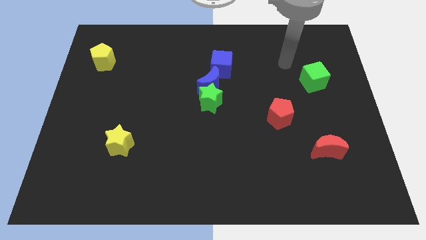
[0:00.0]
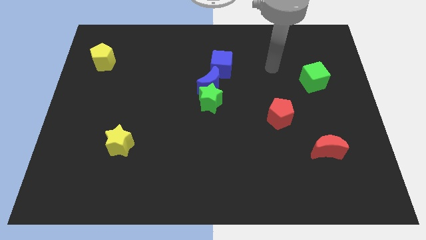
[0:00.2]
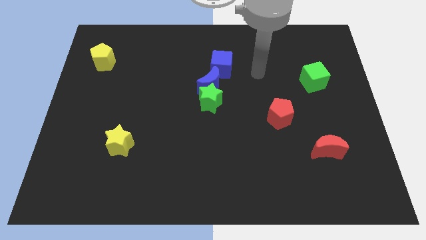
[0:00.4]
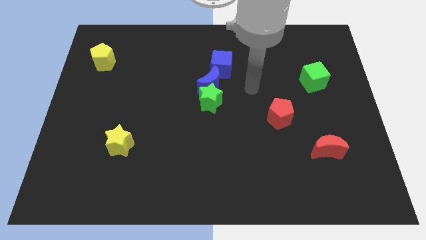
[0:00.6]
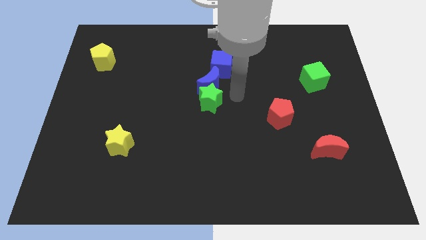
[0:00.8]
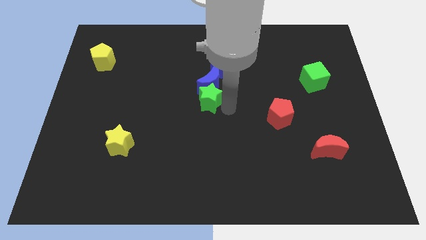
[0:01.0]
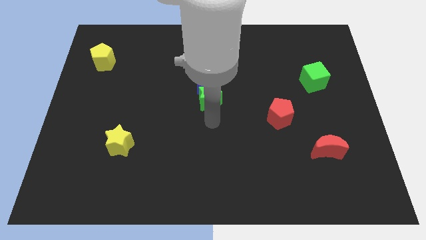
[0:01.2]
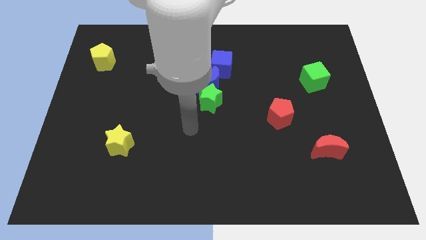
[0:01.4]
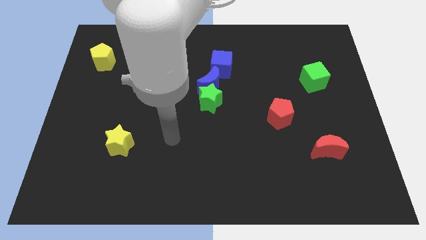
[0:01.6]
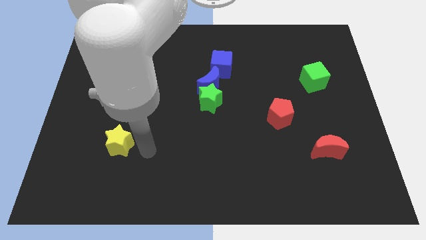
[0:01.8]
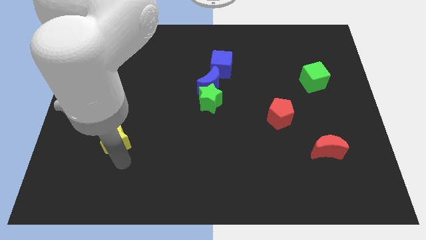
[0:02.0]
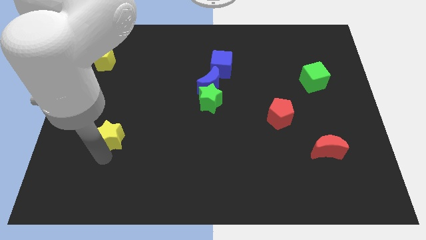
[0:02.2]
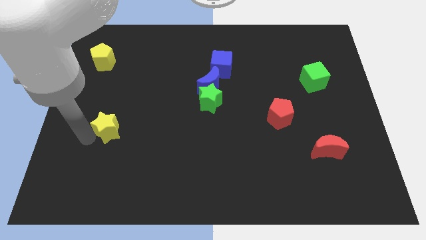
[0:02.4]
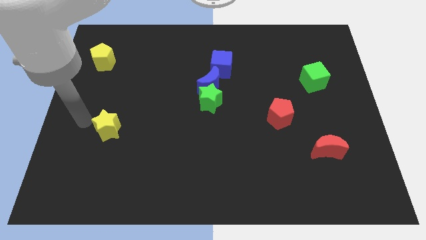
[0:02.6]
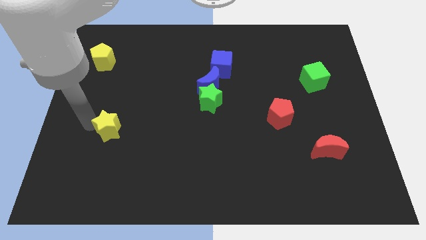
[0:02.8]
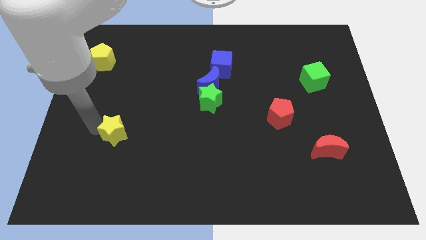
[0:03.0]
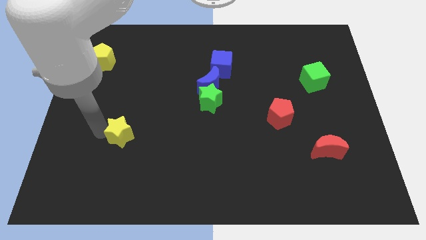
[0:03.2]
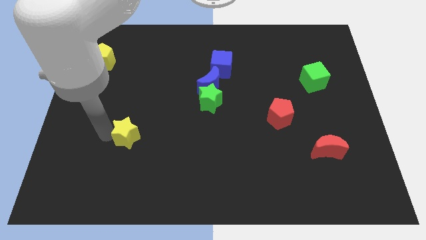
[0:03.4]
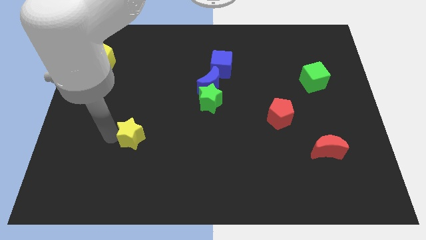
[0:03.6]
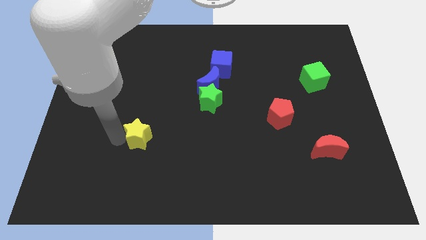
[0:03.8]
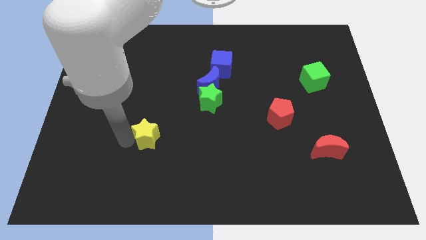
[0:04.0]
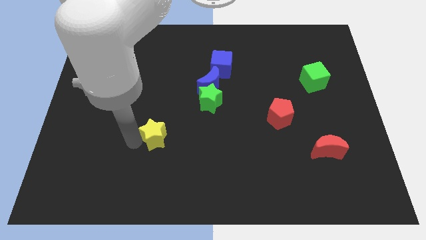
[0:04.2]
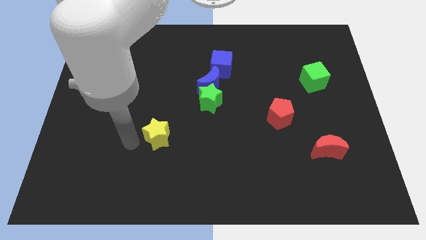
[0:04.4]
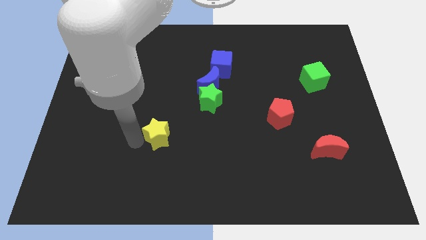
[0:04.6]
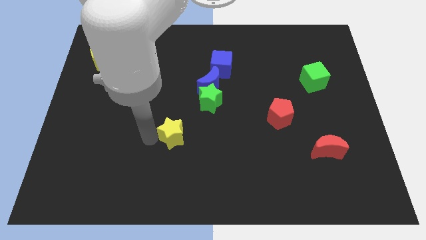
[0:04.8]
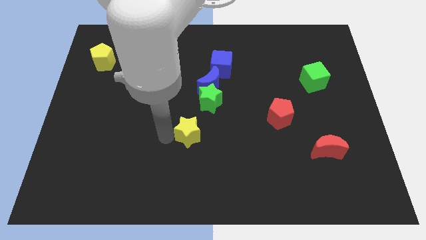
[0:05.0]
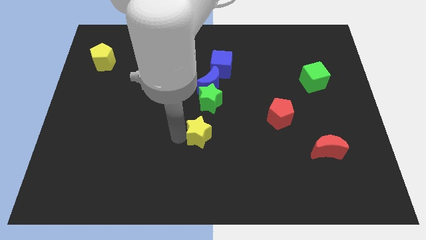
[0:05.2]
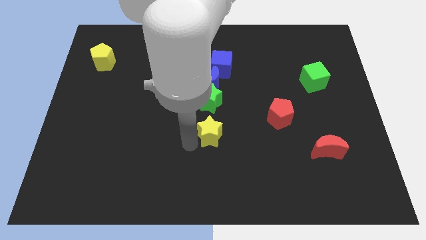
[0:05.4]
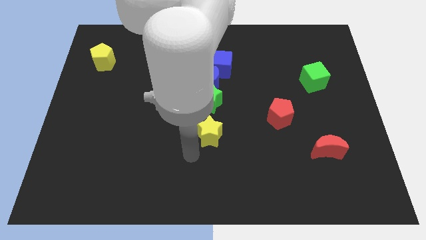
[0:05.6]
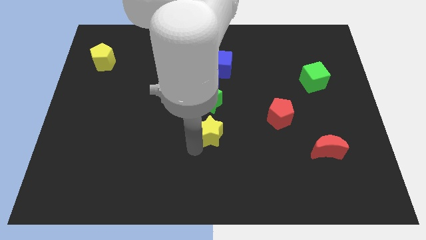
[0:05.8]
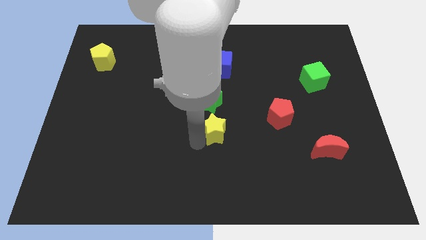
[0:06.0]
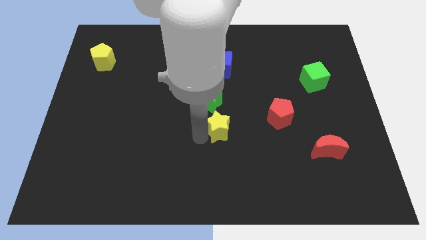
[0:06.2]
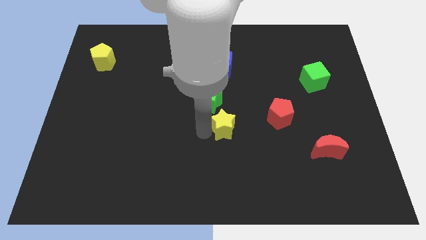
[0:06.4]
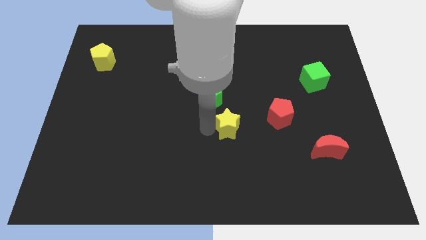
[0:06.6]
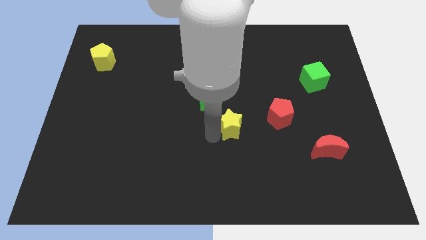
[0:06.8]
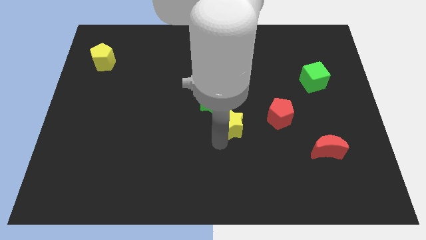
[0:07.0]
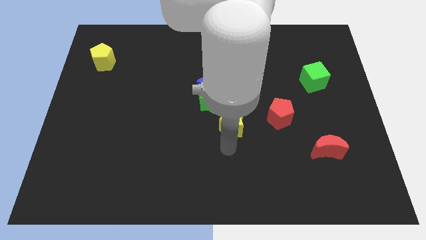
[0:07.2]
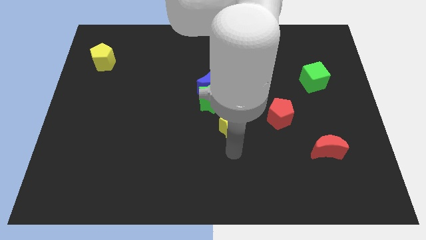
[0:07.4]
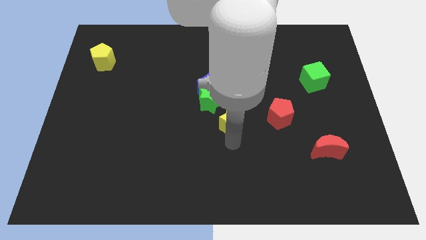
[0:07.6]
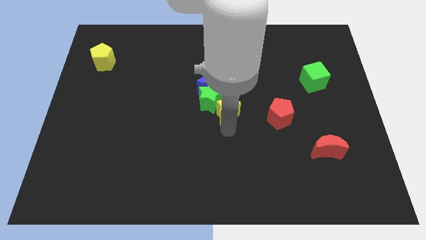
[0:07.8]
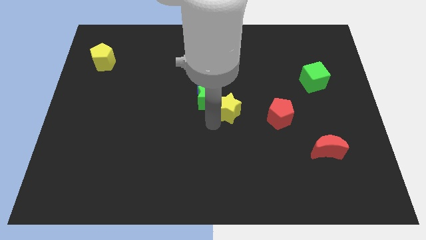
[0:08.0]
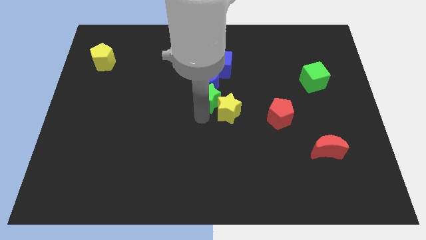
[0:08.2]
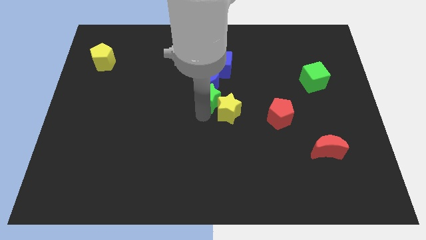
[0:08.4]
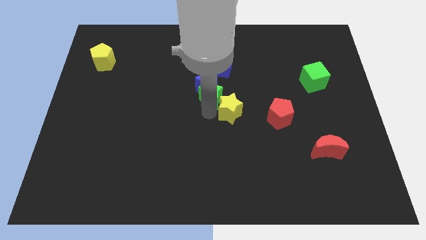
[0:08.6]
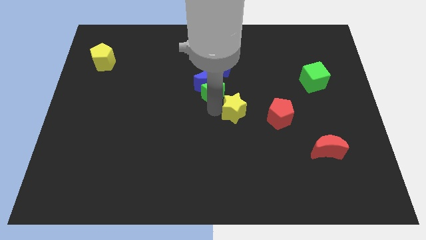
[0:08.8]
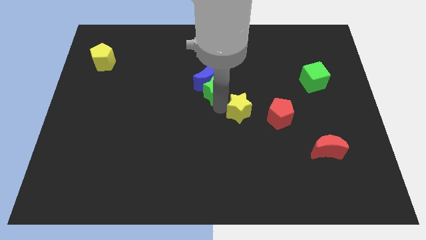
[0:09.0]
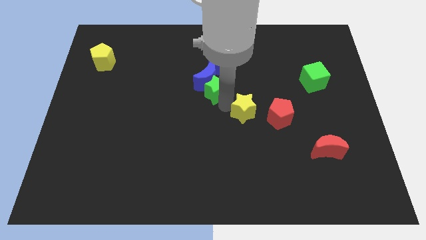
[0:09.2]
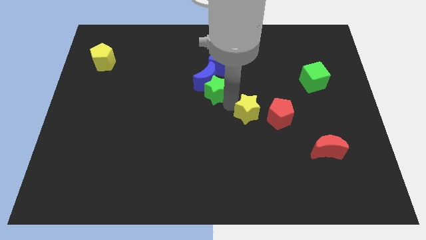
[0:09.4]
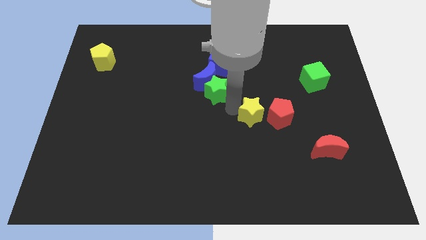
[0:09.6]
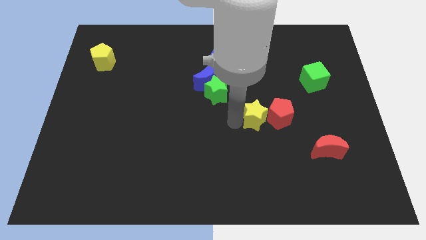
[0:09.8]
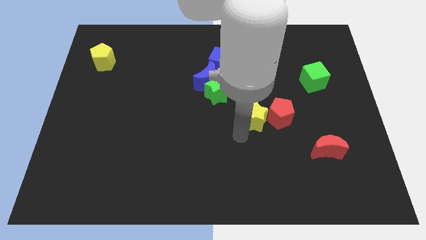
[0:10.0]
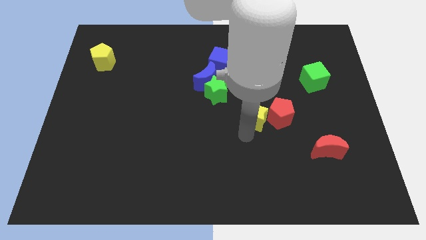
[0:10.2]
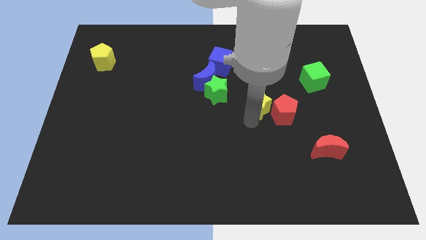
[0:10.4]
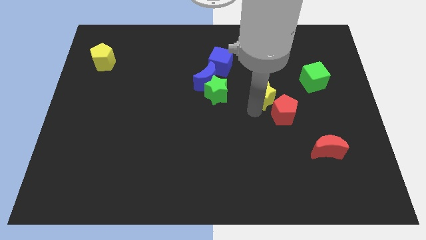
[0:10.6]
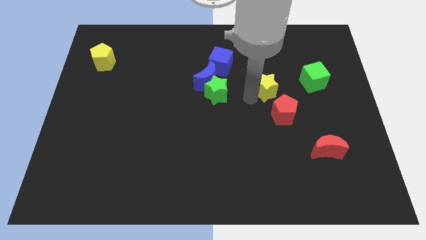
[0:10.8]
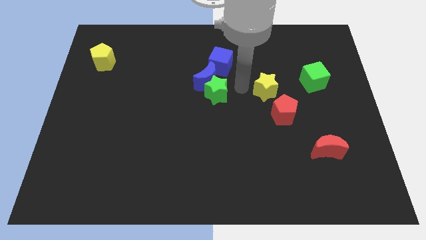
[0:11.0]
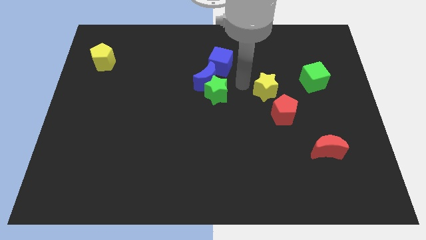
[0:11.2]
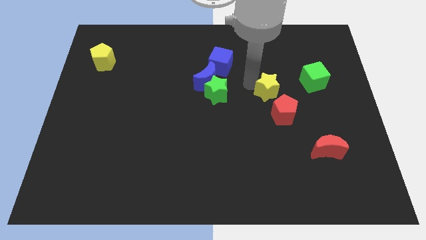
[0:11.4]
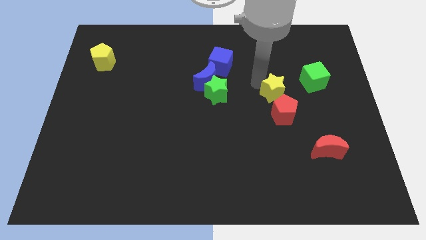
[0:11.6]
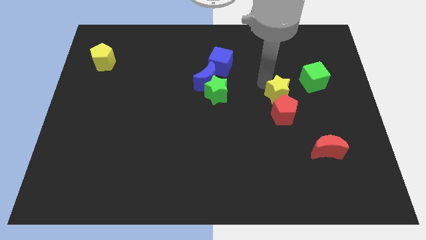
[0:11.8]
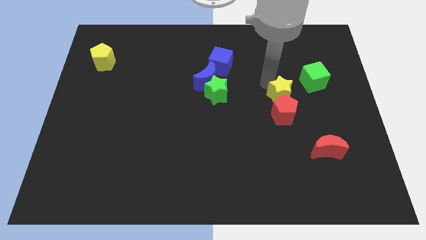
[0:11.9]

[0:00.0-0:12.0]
put the yellow star diagonally up and to the right of the red pentagon

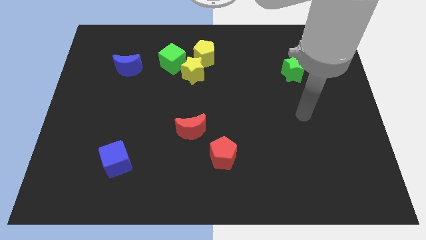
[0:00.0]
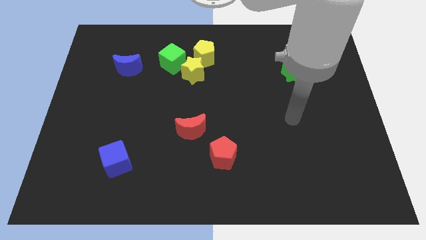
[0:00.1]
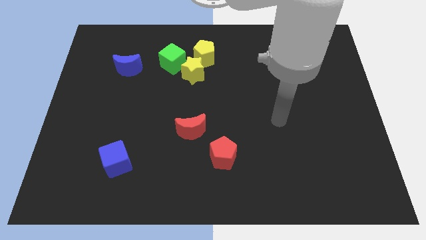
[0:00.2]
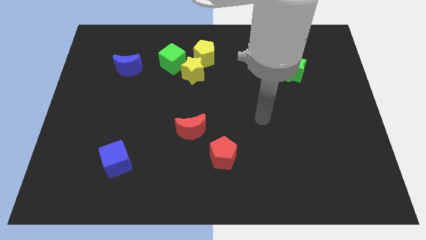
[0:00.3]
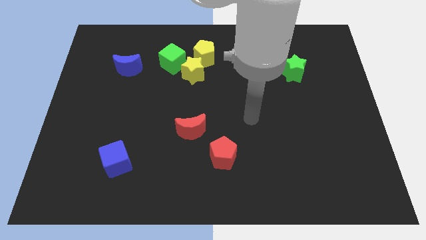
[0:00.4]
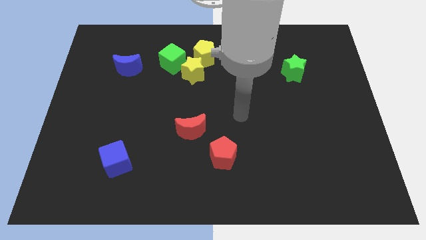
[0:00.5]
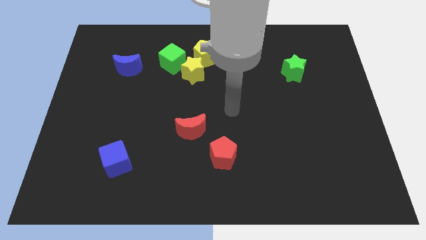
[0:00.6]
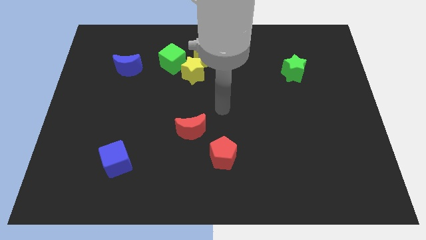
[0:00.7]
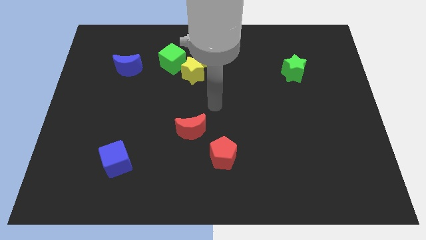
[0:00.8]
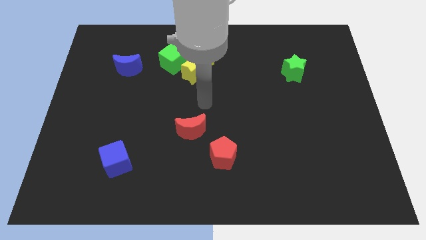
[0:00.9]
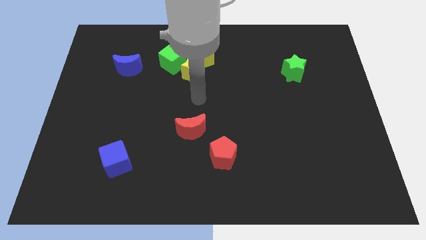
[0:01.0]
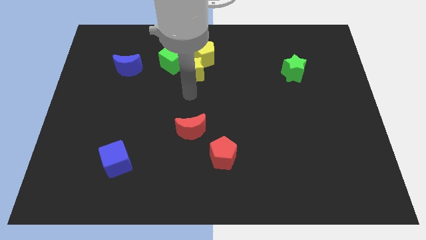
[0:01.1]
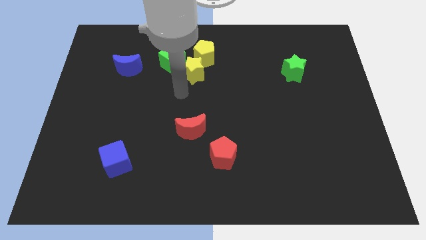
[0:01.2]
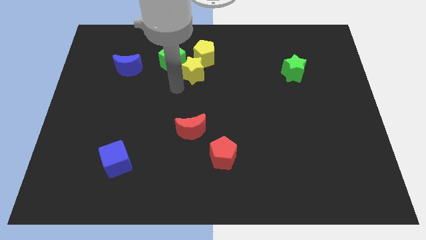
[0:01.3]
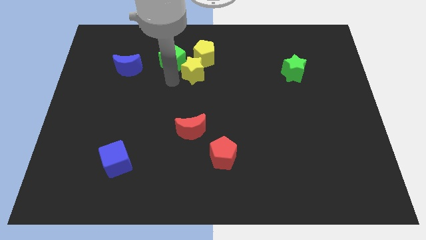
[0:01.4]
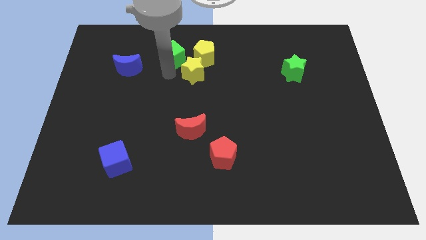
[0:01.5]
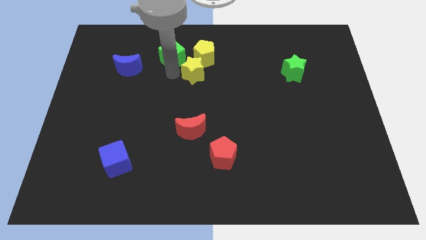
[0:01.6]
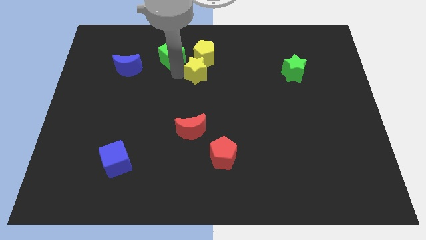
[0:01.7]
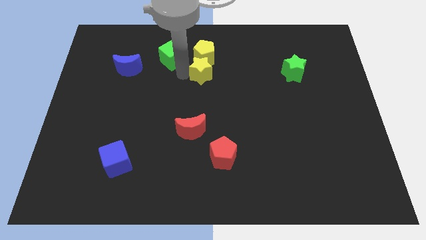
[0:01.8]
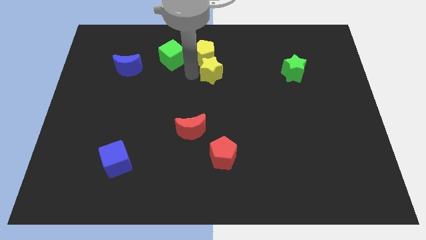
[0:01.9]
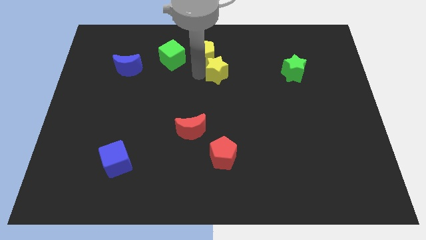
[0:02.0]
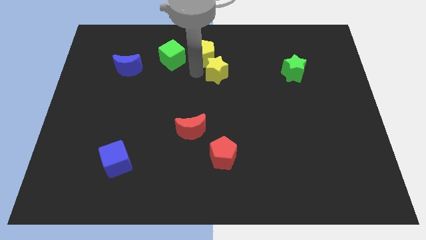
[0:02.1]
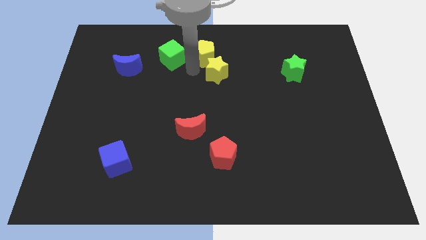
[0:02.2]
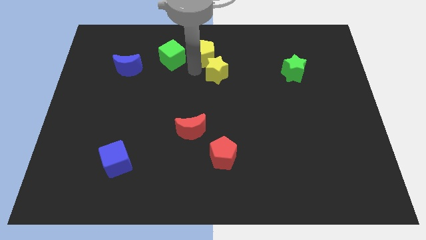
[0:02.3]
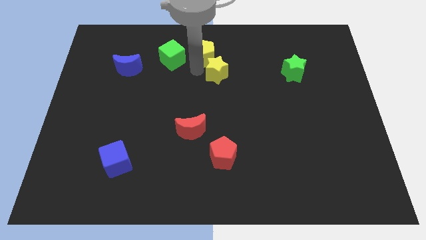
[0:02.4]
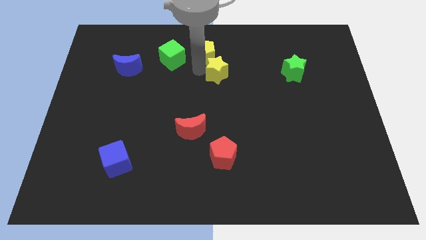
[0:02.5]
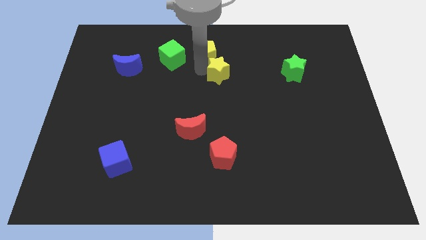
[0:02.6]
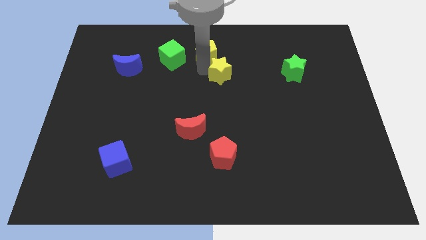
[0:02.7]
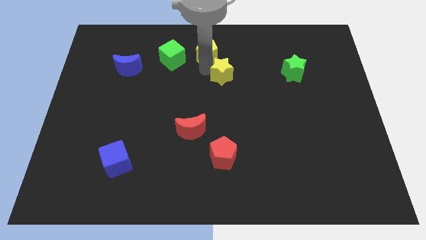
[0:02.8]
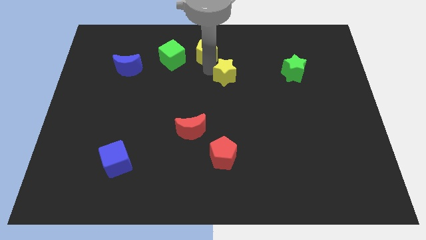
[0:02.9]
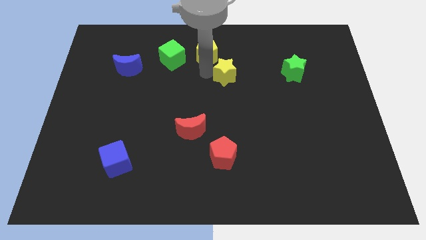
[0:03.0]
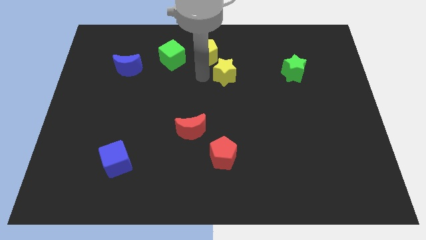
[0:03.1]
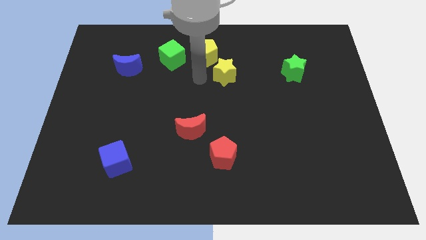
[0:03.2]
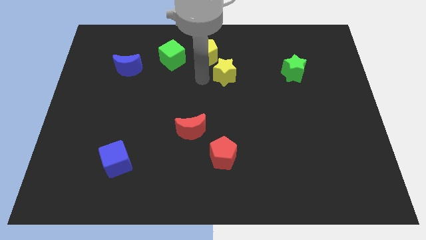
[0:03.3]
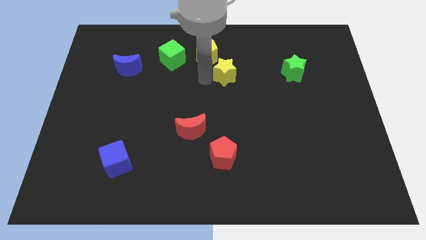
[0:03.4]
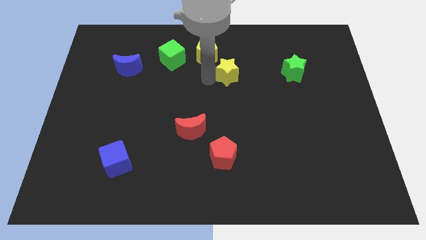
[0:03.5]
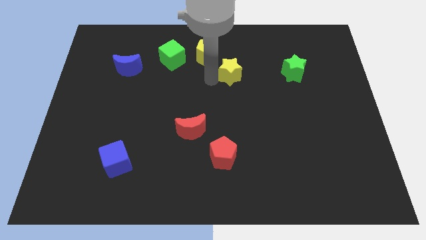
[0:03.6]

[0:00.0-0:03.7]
push the yellow star to the left of the green star
